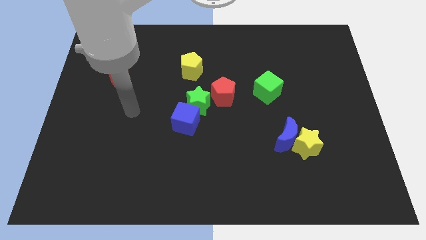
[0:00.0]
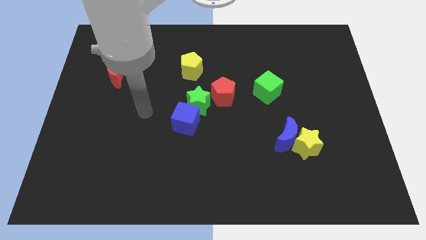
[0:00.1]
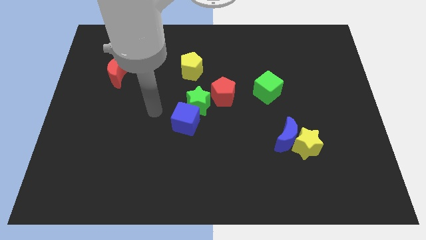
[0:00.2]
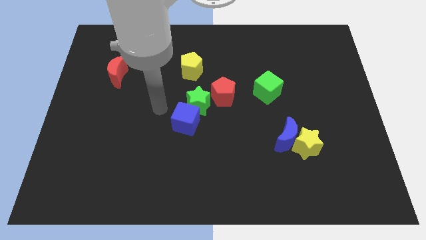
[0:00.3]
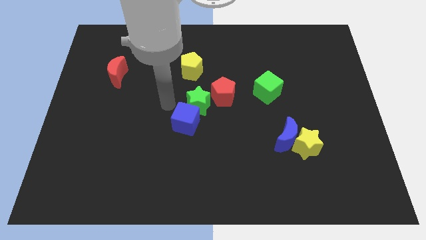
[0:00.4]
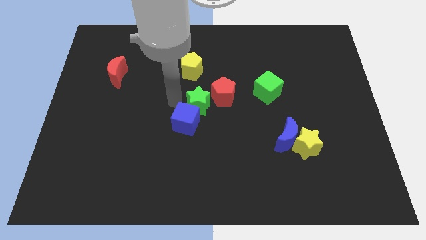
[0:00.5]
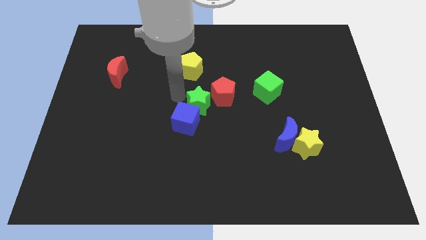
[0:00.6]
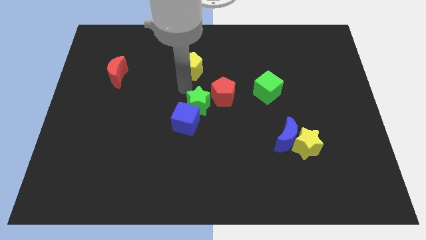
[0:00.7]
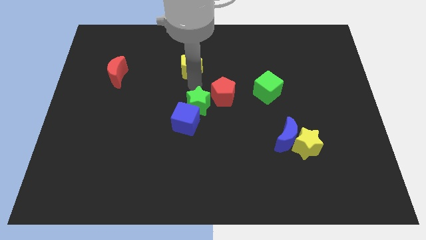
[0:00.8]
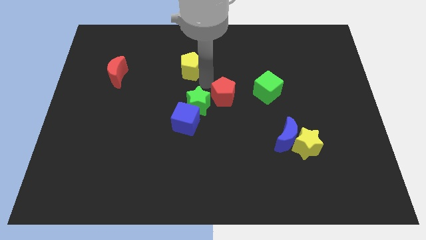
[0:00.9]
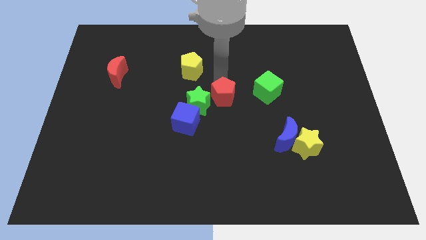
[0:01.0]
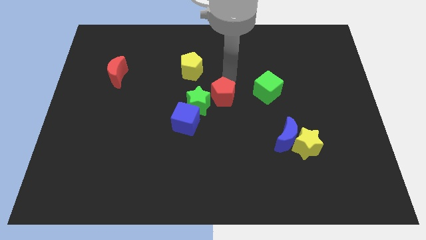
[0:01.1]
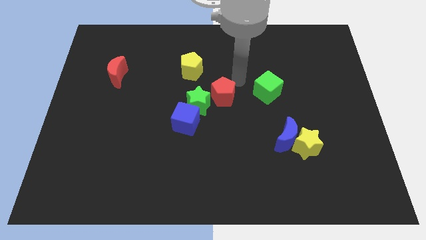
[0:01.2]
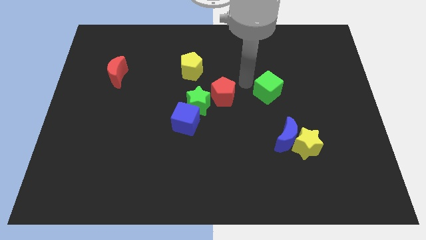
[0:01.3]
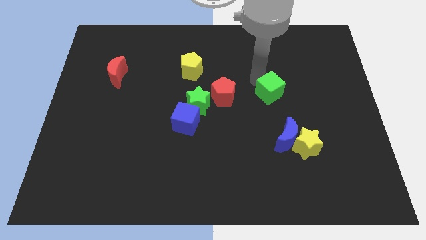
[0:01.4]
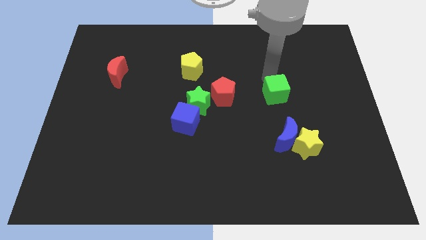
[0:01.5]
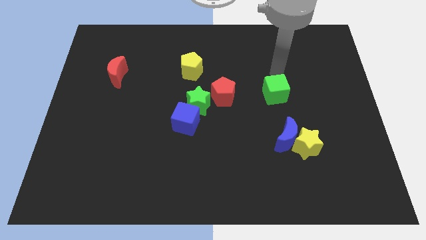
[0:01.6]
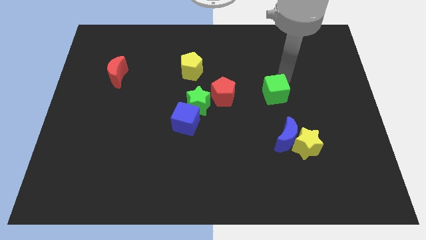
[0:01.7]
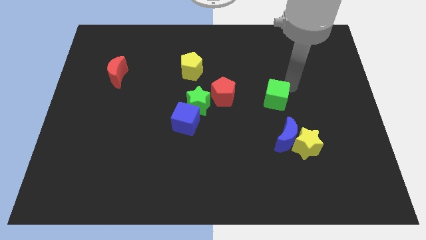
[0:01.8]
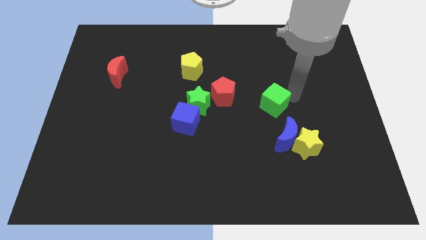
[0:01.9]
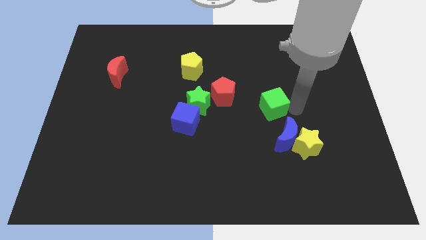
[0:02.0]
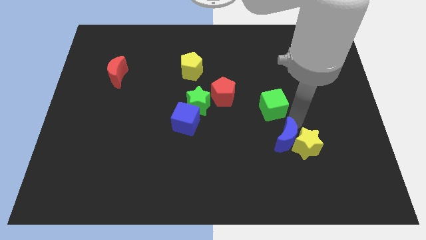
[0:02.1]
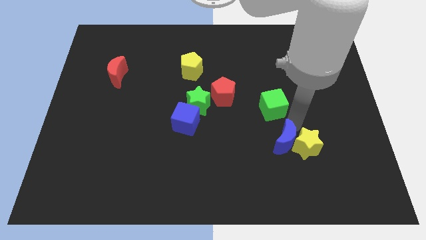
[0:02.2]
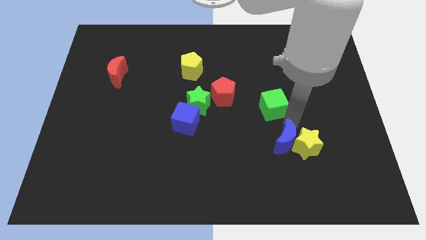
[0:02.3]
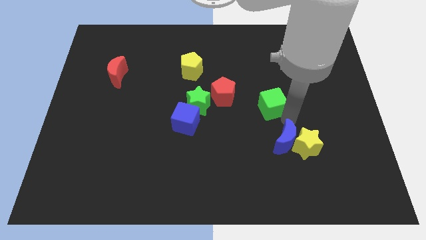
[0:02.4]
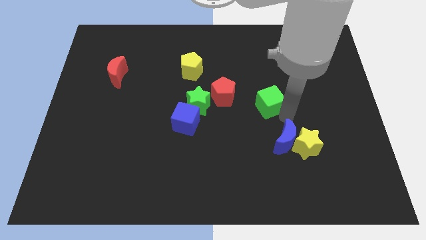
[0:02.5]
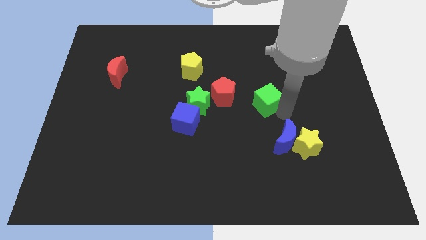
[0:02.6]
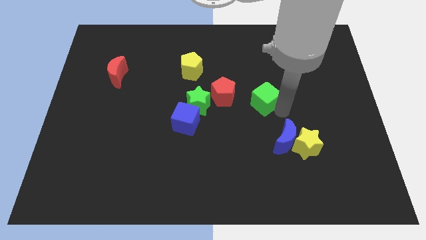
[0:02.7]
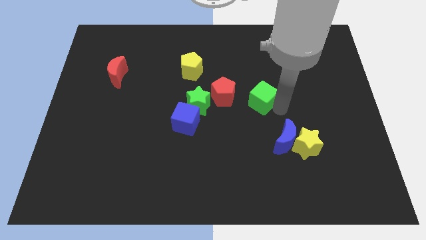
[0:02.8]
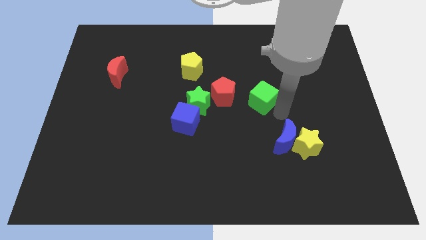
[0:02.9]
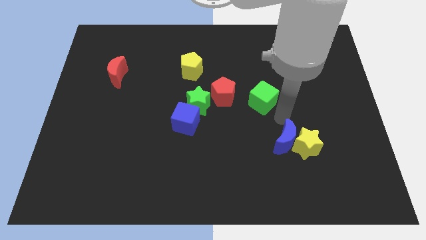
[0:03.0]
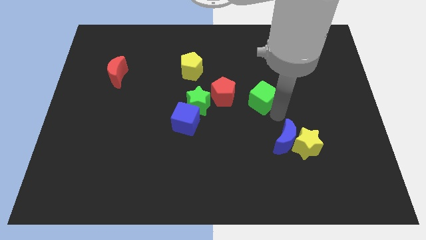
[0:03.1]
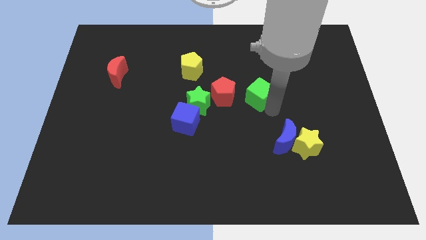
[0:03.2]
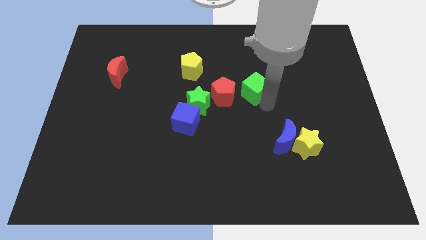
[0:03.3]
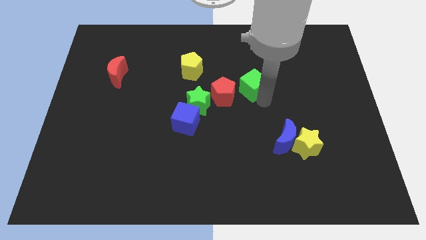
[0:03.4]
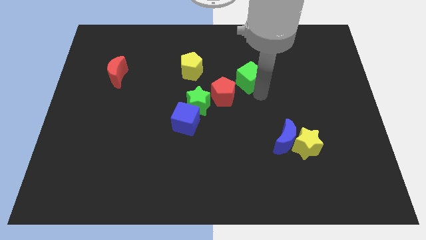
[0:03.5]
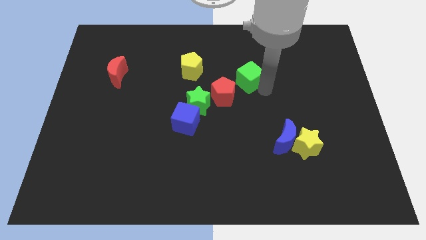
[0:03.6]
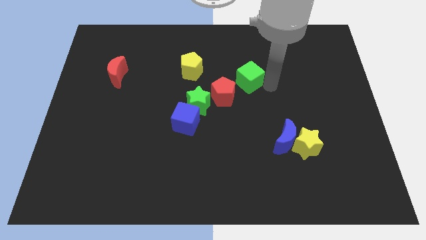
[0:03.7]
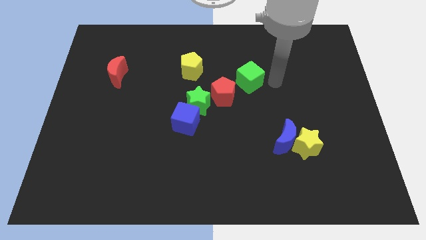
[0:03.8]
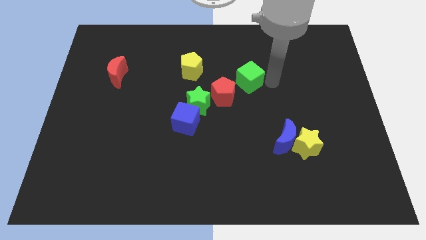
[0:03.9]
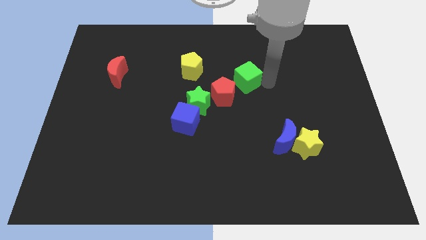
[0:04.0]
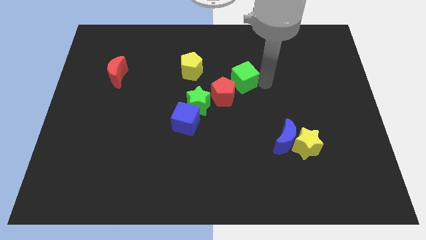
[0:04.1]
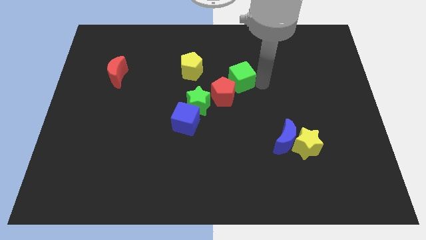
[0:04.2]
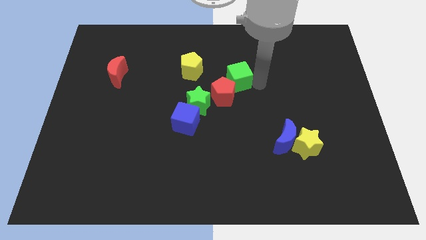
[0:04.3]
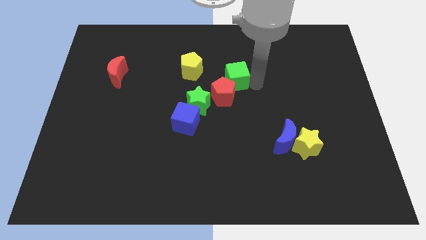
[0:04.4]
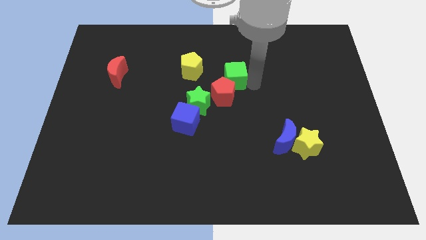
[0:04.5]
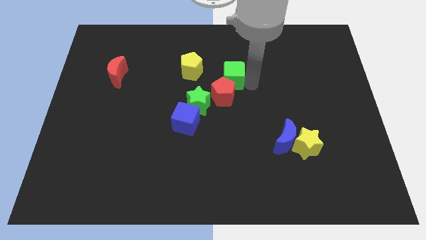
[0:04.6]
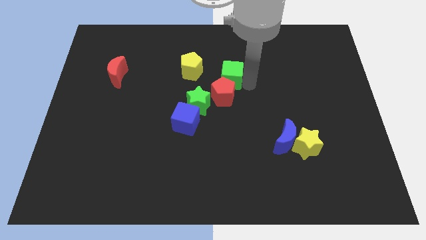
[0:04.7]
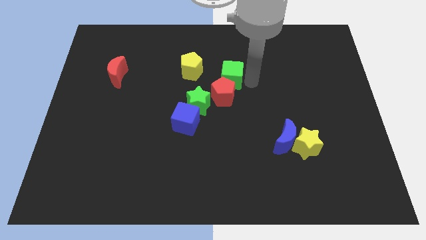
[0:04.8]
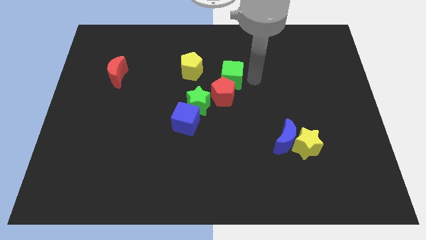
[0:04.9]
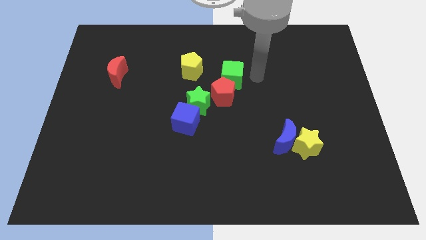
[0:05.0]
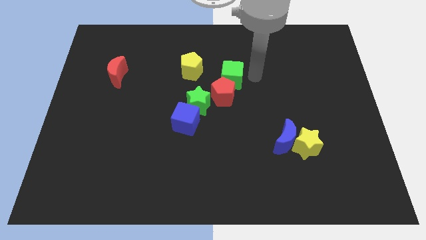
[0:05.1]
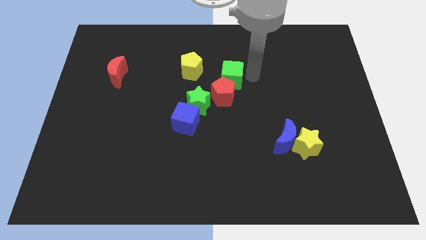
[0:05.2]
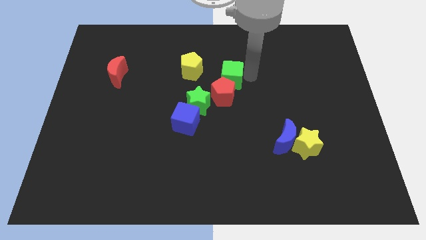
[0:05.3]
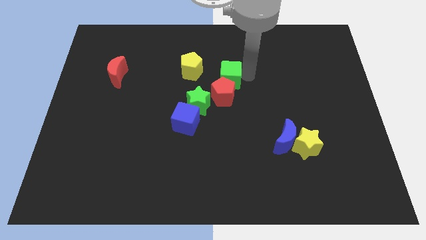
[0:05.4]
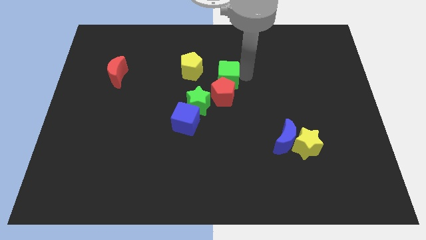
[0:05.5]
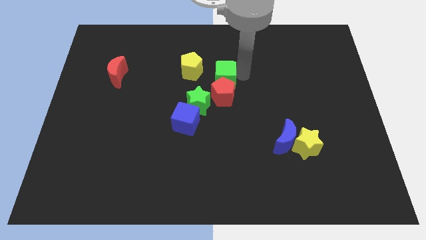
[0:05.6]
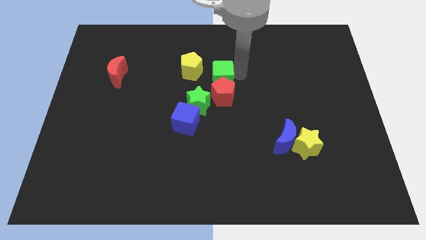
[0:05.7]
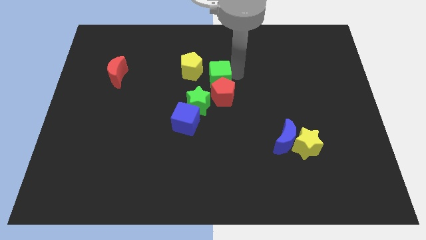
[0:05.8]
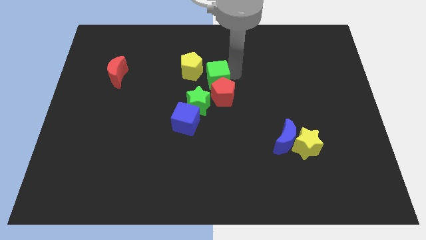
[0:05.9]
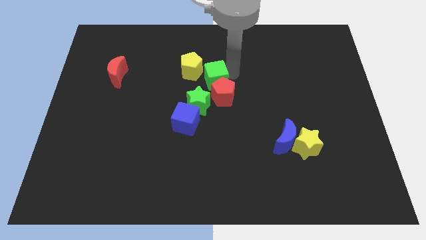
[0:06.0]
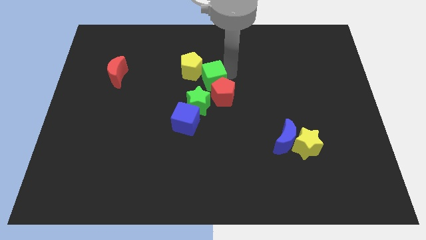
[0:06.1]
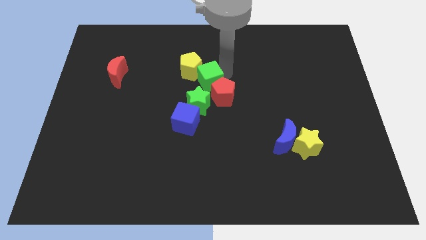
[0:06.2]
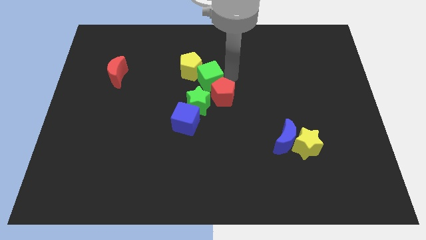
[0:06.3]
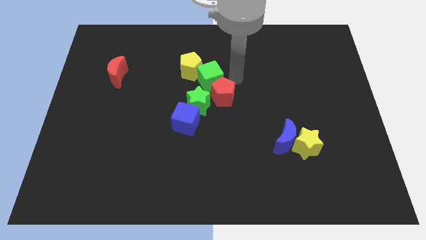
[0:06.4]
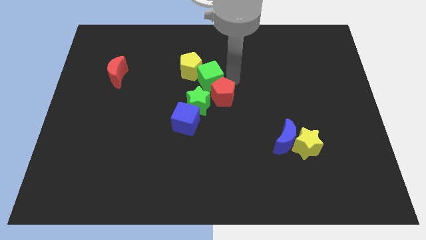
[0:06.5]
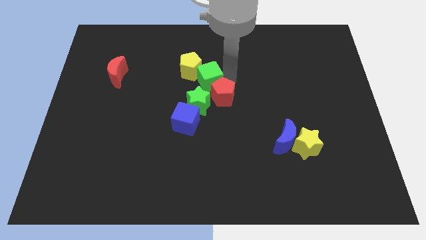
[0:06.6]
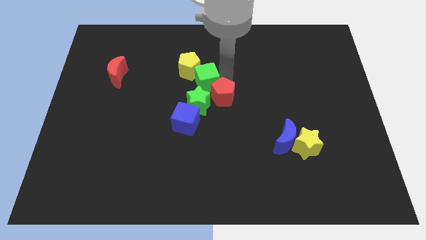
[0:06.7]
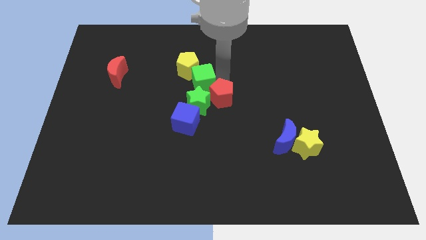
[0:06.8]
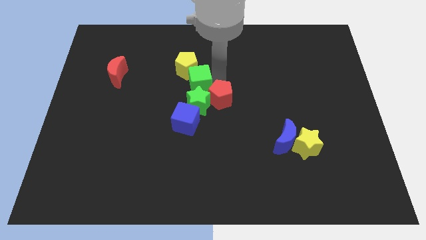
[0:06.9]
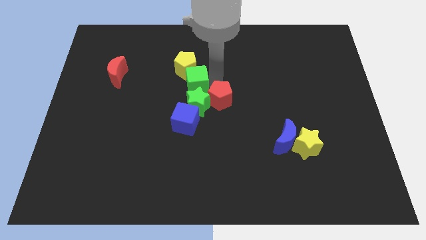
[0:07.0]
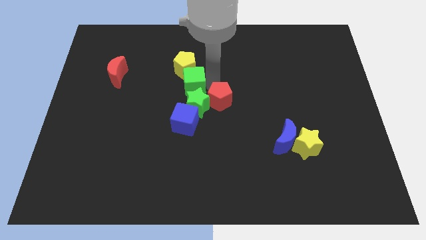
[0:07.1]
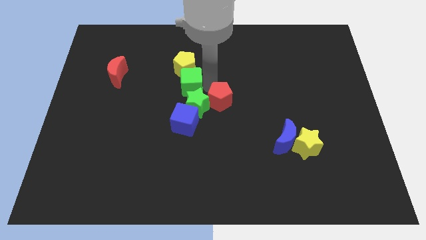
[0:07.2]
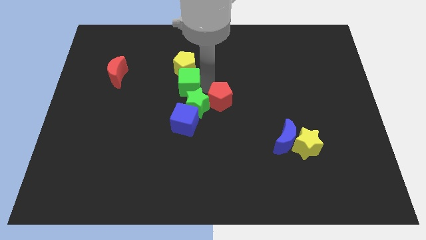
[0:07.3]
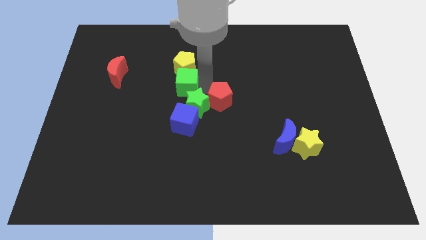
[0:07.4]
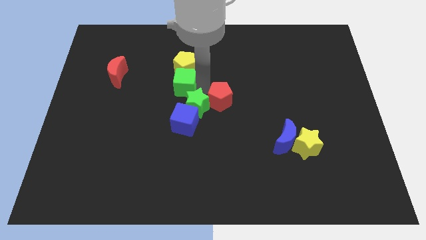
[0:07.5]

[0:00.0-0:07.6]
slide the green cube left

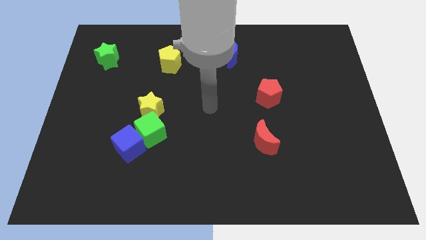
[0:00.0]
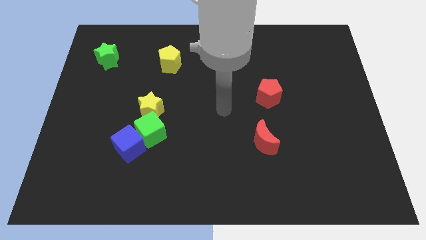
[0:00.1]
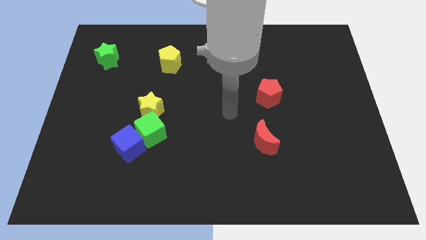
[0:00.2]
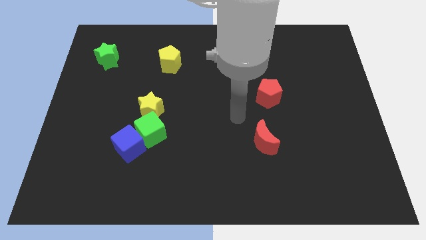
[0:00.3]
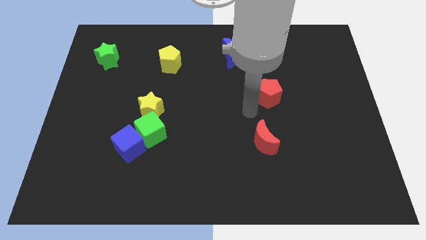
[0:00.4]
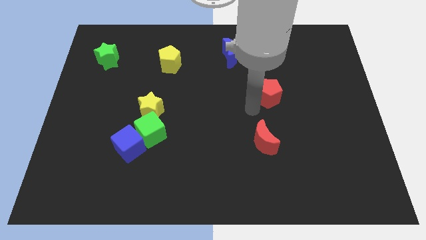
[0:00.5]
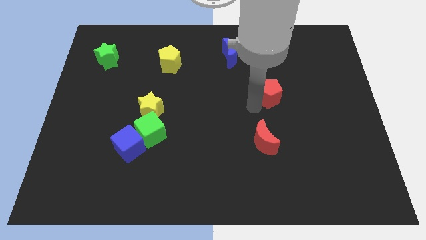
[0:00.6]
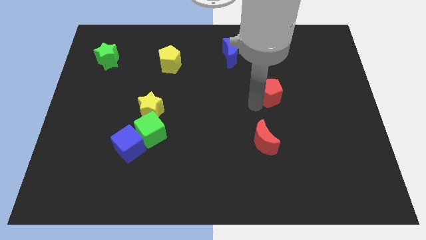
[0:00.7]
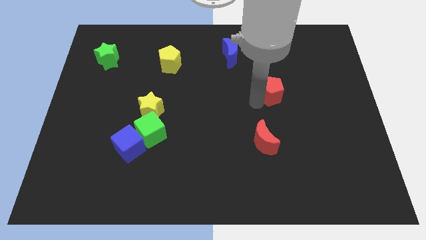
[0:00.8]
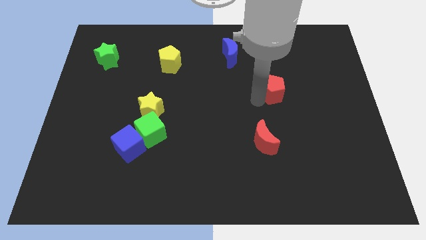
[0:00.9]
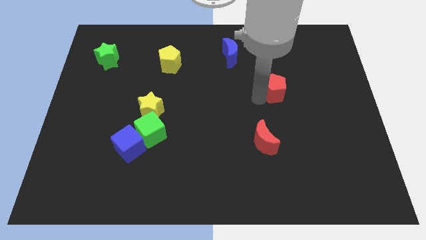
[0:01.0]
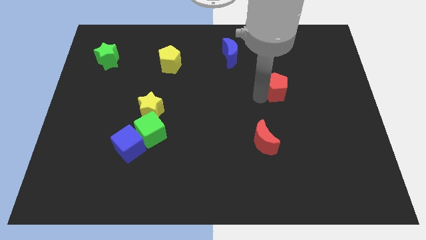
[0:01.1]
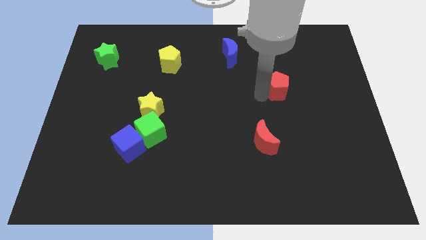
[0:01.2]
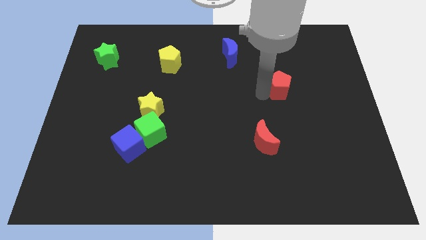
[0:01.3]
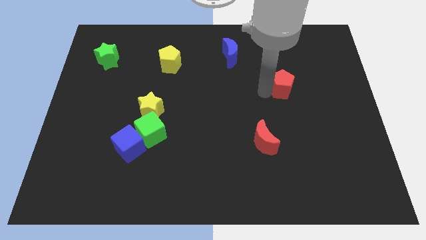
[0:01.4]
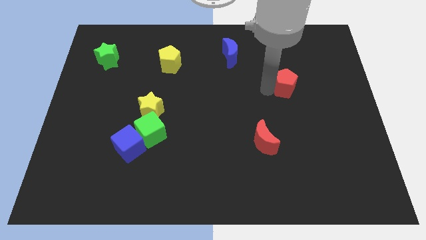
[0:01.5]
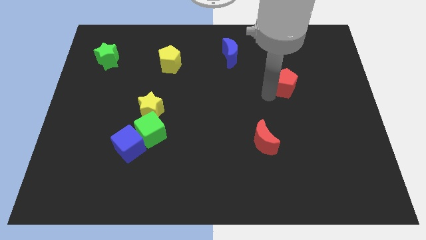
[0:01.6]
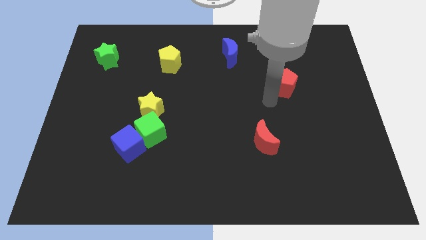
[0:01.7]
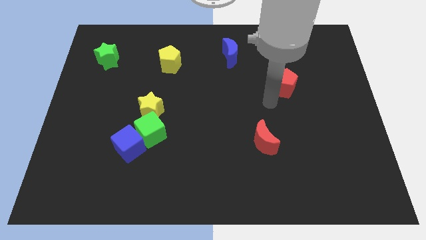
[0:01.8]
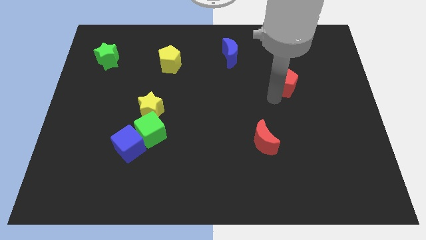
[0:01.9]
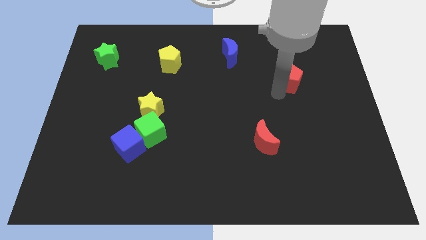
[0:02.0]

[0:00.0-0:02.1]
slightly slide the red pentagon up and then right
